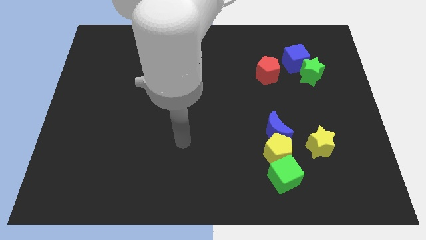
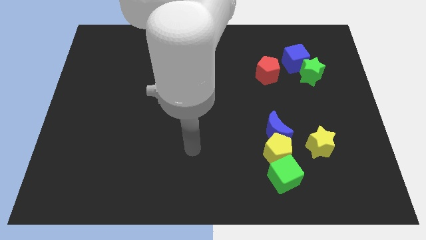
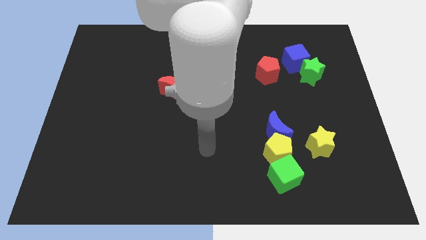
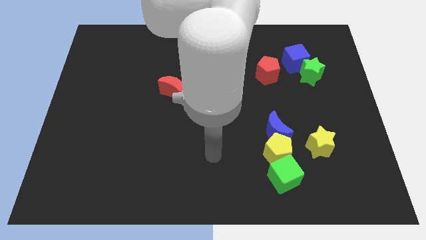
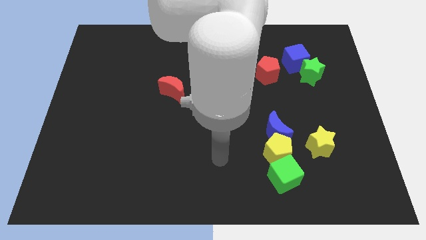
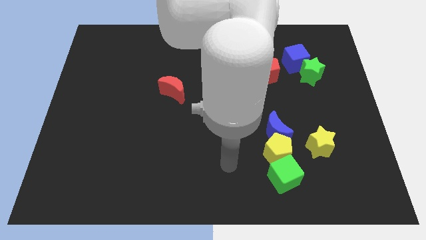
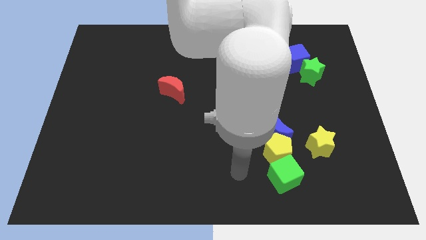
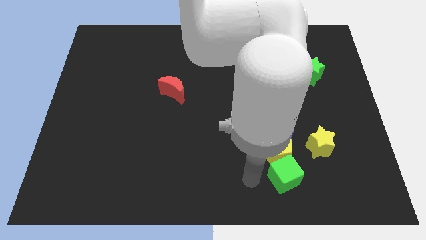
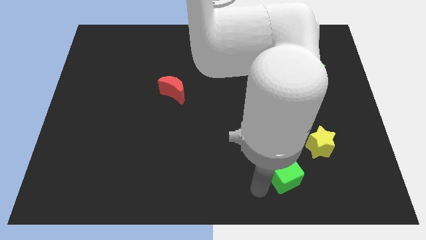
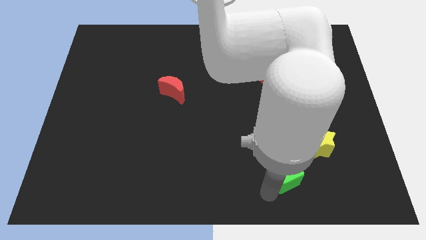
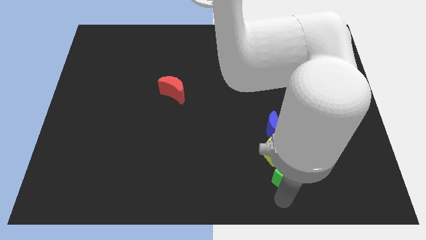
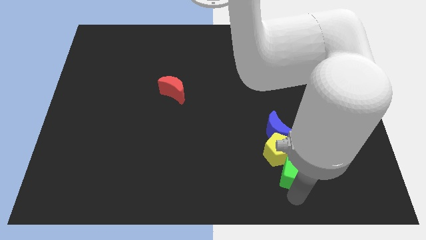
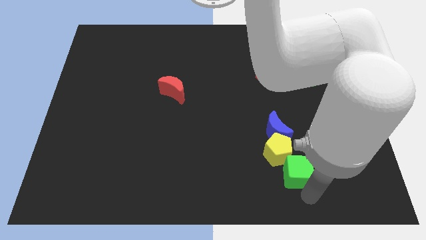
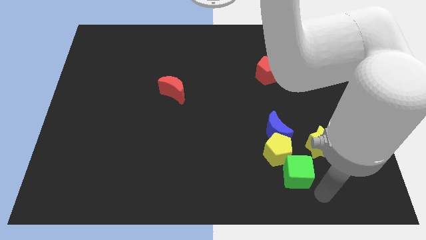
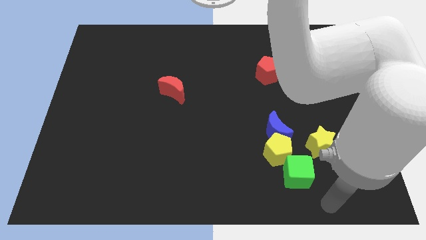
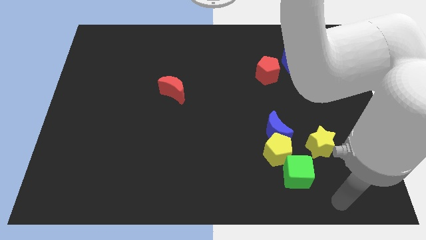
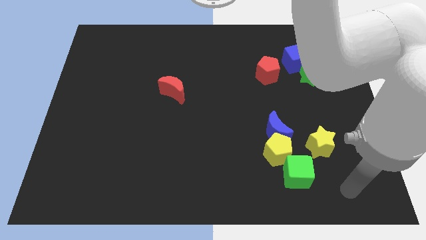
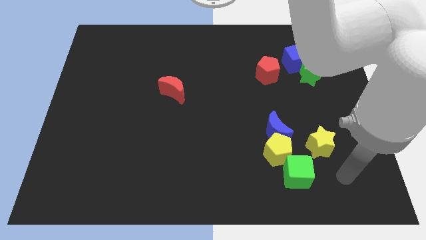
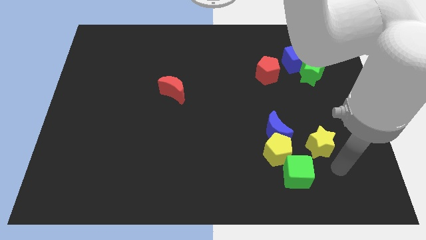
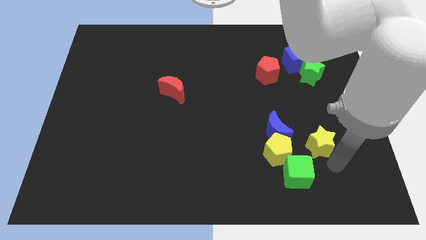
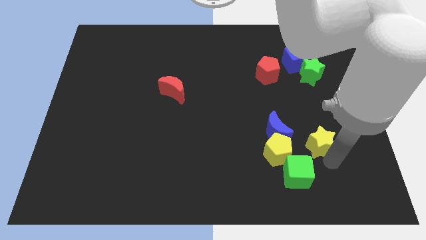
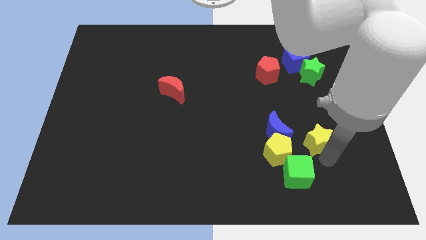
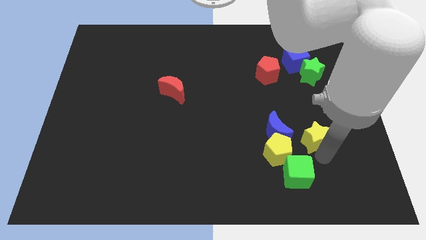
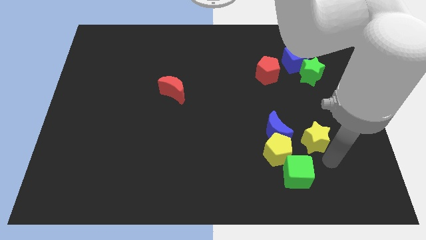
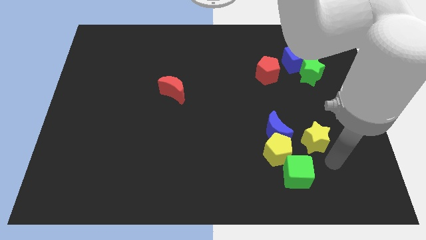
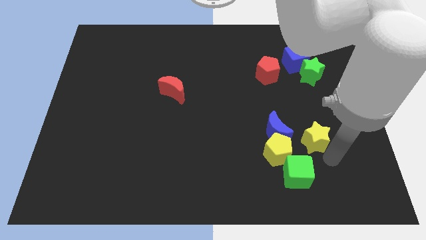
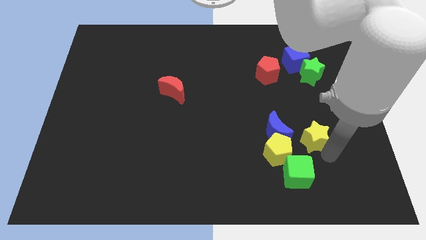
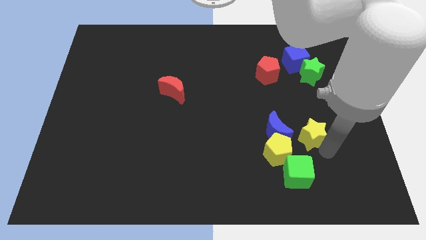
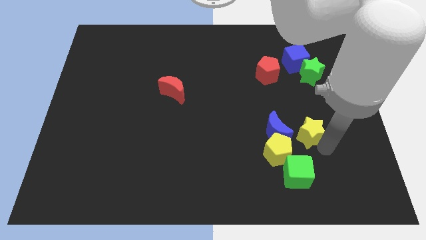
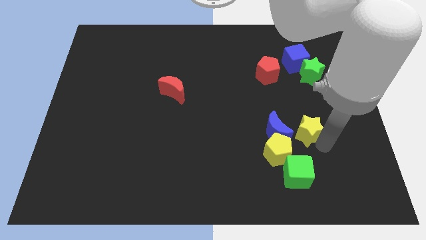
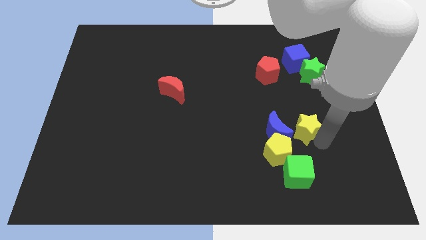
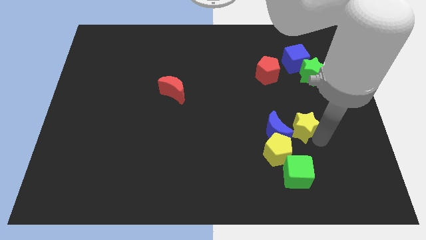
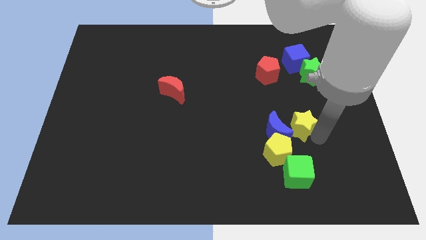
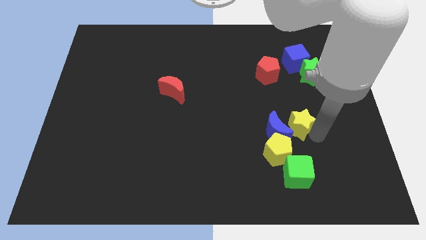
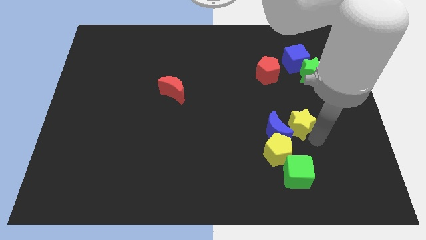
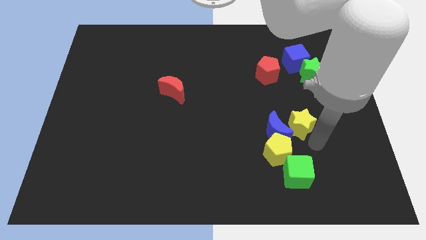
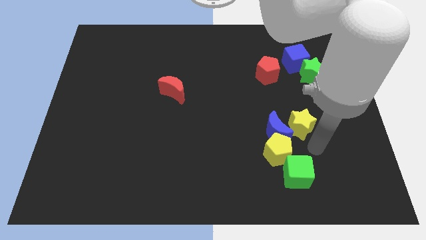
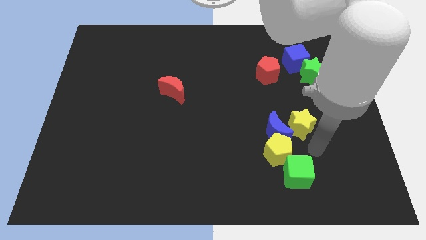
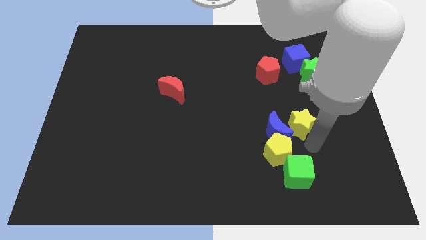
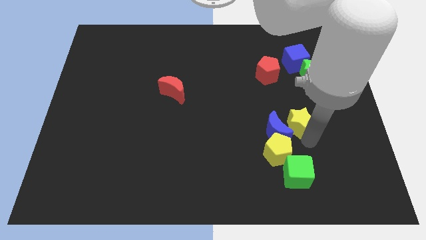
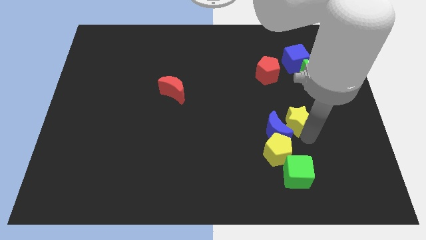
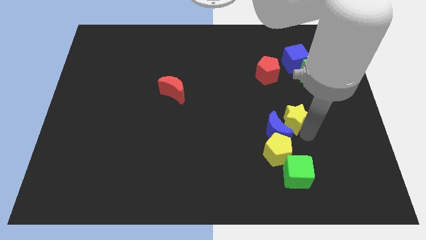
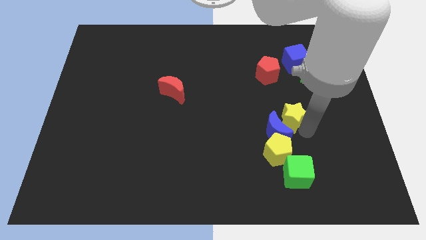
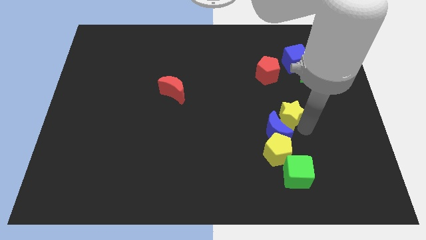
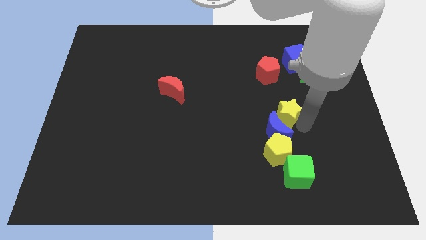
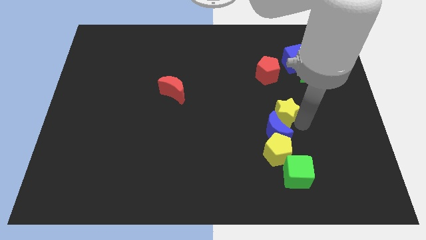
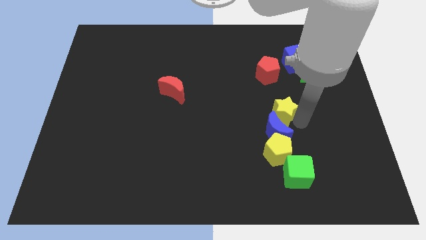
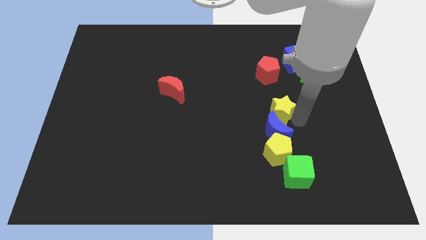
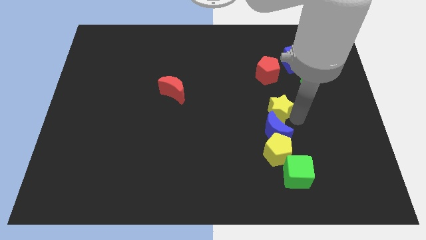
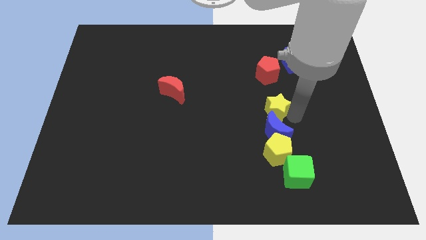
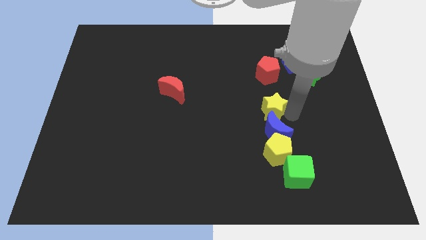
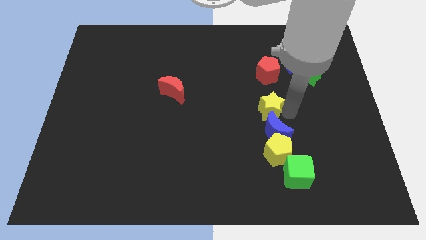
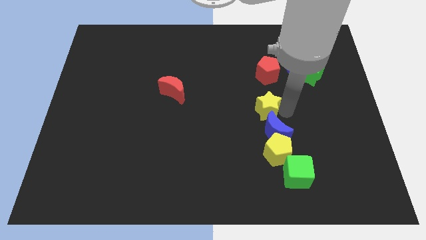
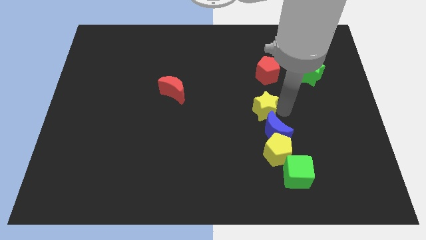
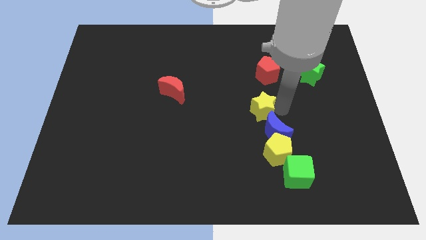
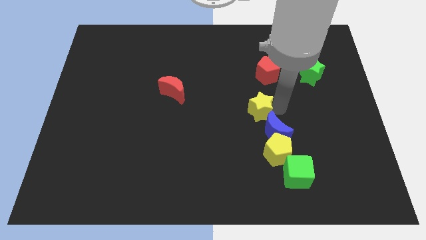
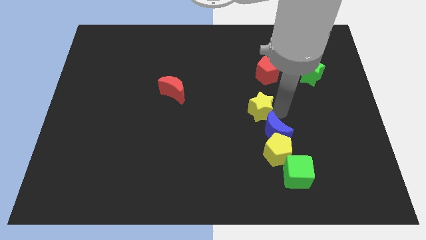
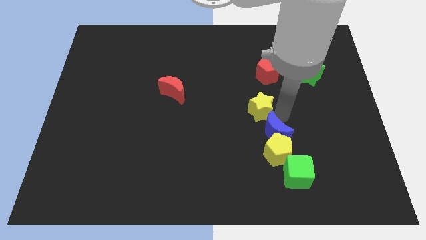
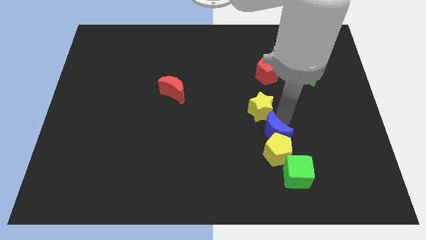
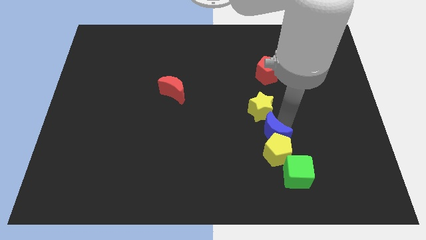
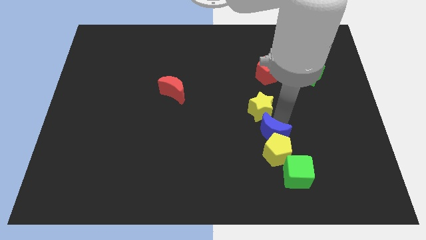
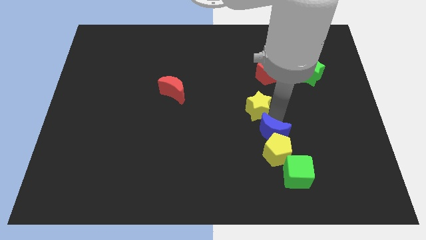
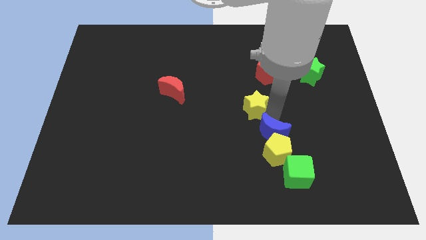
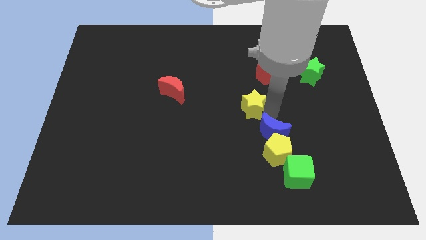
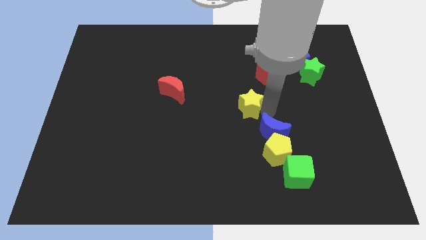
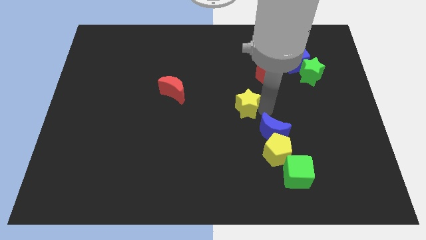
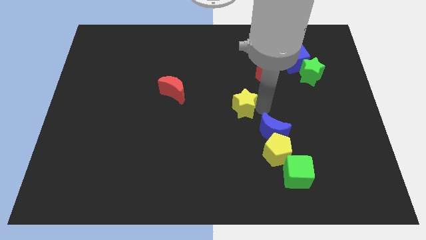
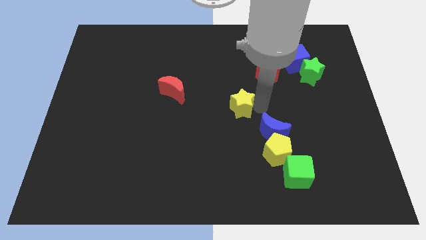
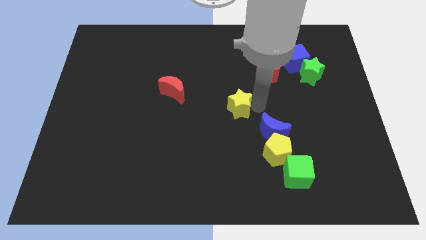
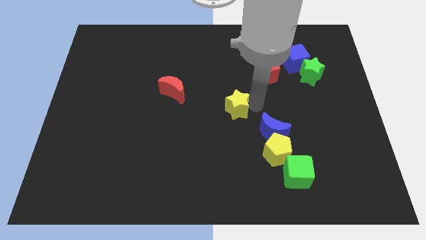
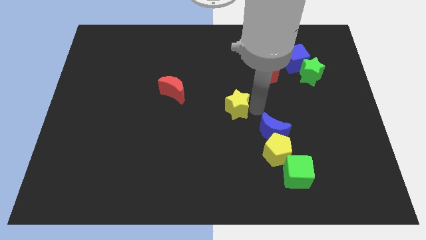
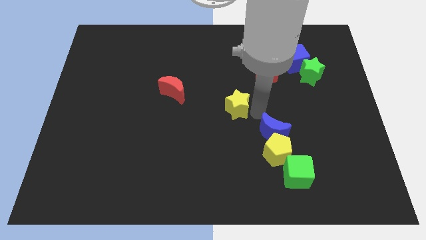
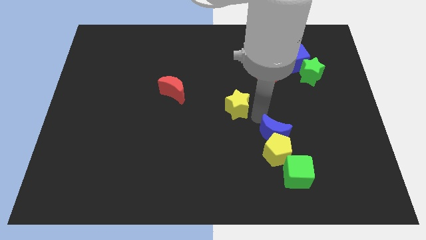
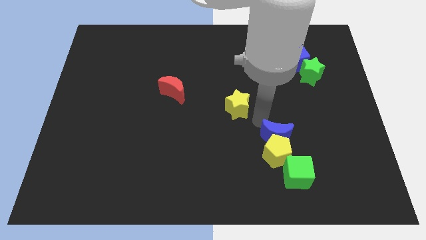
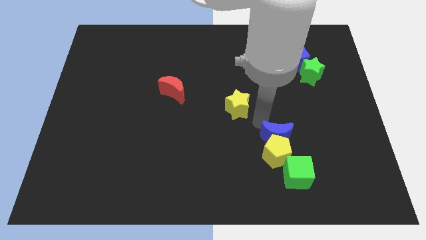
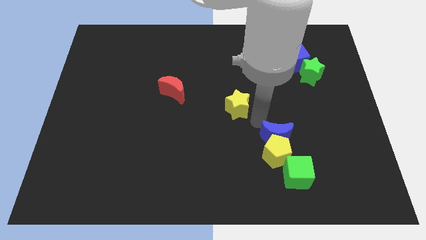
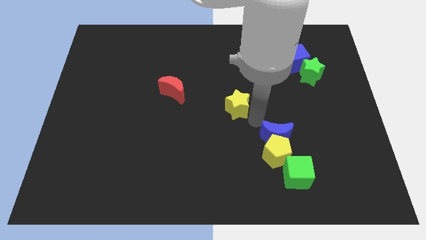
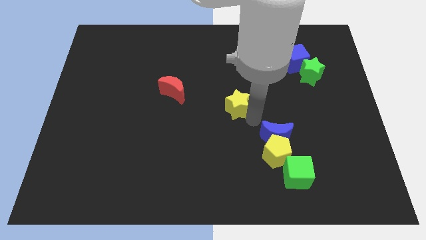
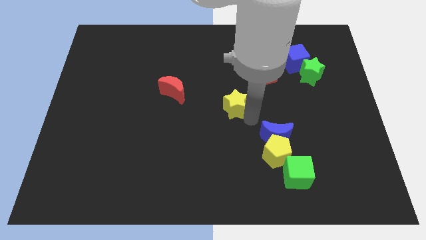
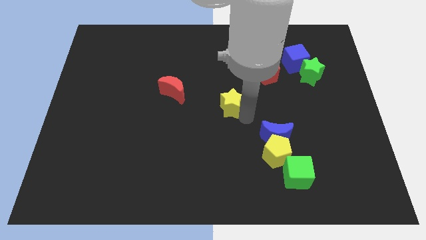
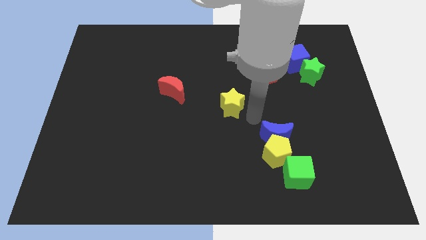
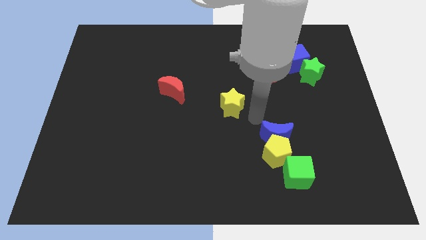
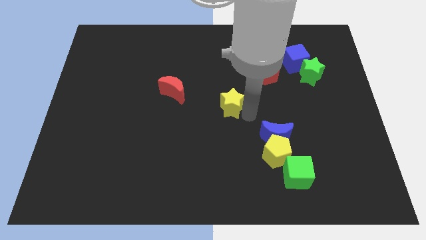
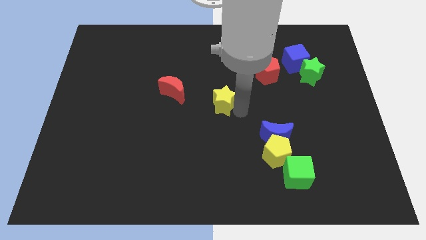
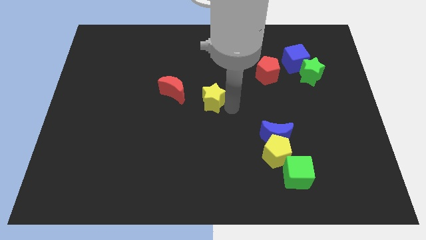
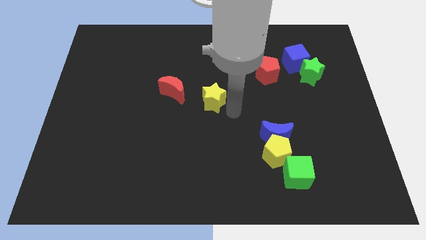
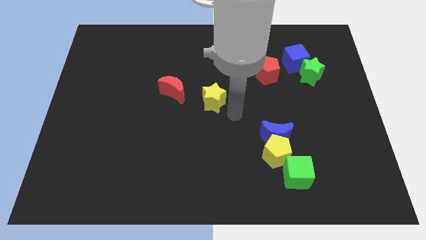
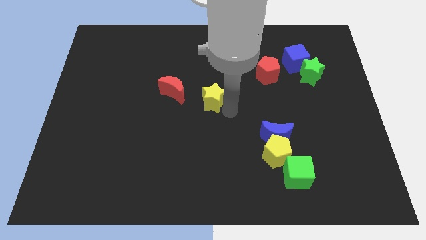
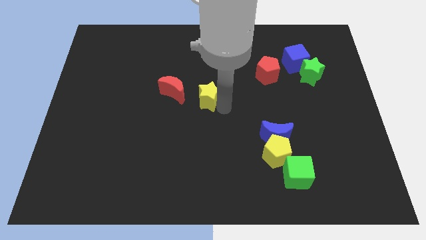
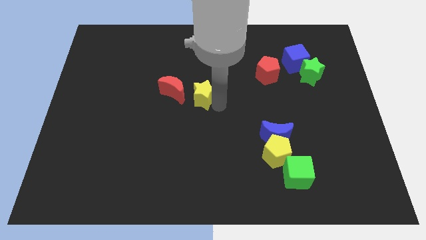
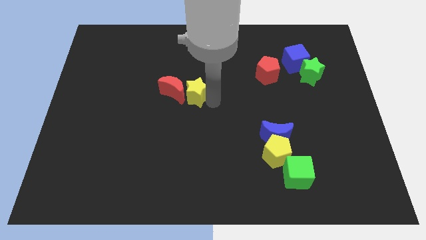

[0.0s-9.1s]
move the yellow star close to the red moon
